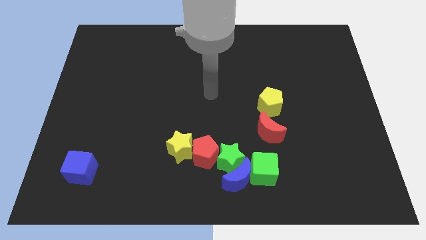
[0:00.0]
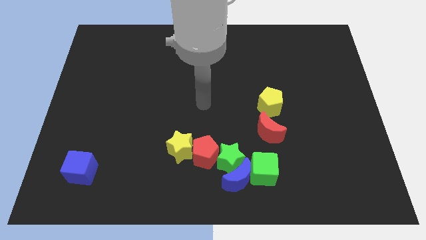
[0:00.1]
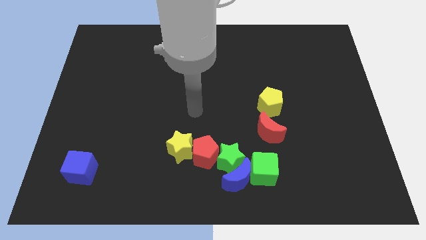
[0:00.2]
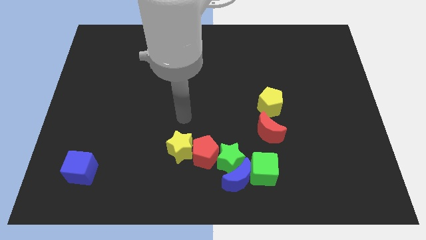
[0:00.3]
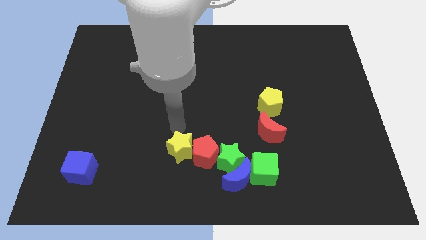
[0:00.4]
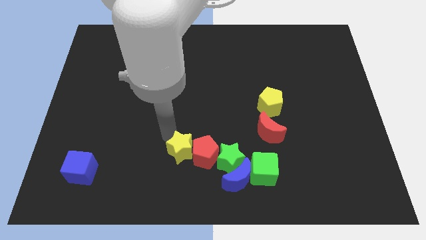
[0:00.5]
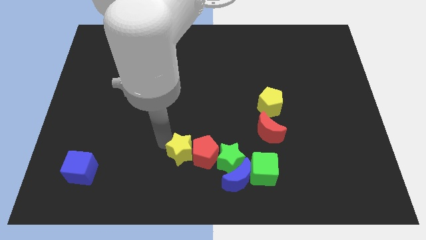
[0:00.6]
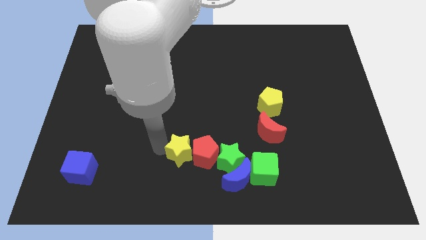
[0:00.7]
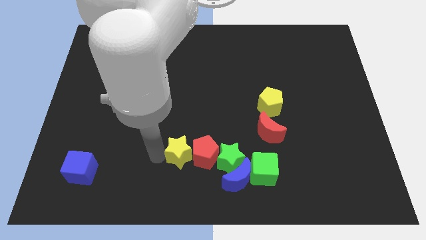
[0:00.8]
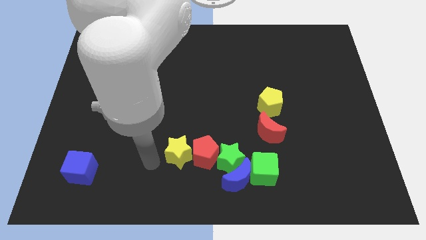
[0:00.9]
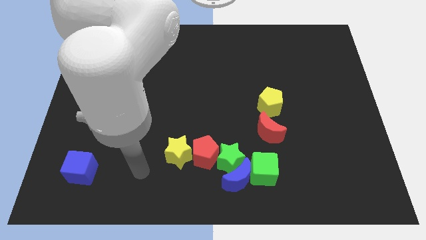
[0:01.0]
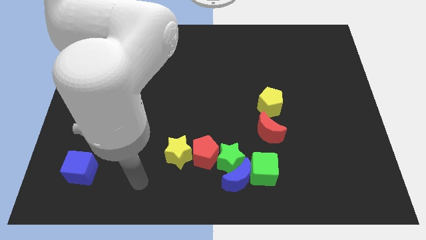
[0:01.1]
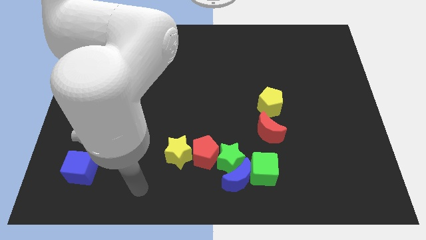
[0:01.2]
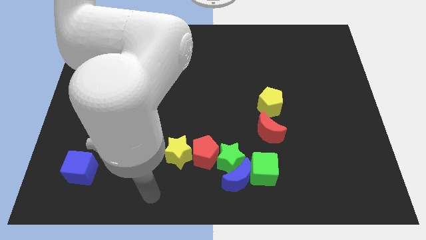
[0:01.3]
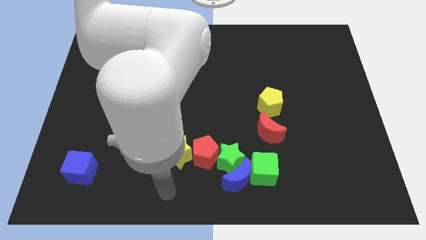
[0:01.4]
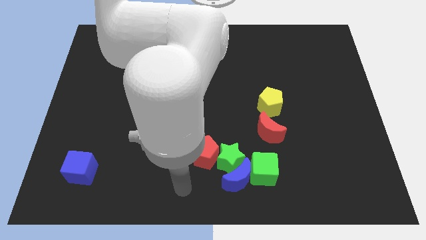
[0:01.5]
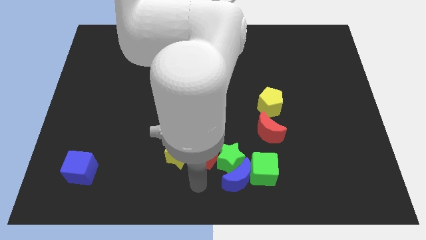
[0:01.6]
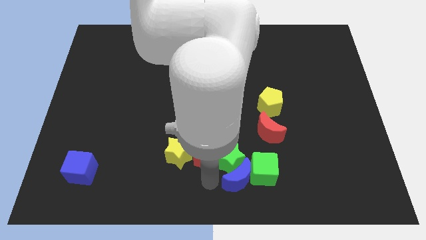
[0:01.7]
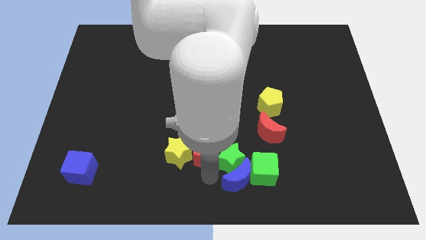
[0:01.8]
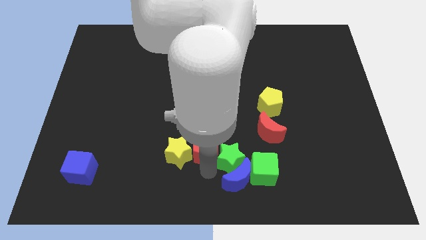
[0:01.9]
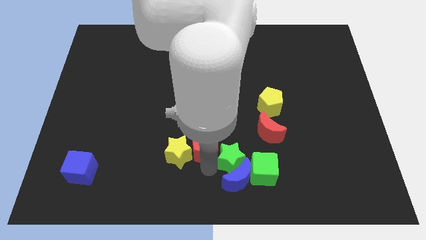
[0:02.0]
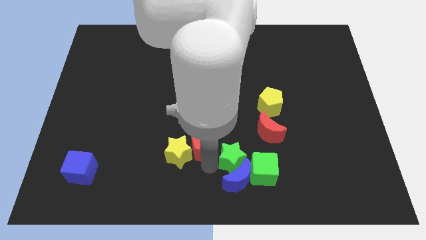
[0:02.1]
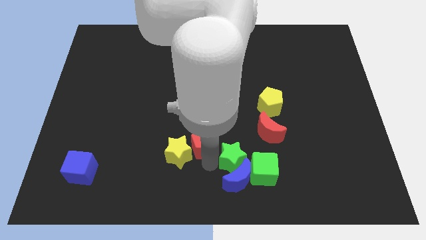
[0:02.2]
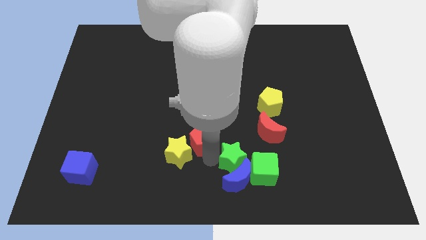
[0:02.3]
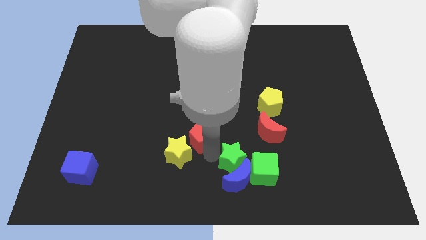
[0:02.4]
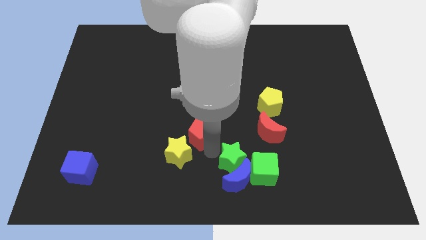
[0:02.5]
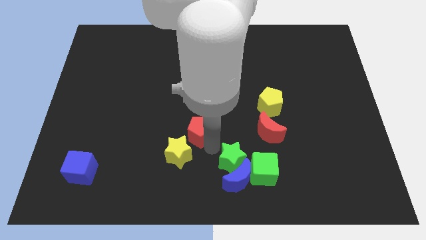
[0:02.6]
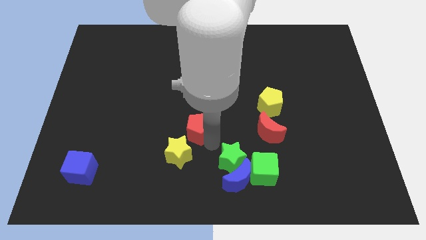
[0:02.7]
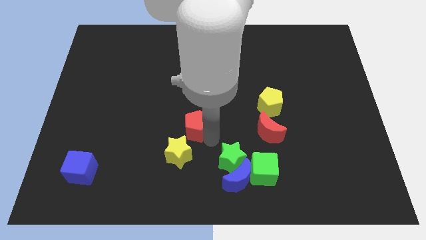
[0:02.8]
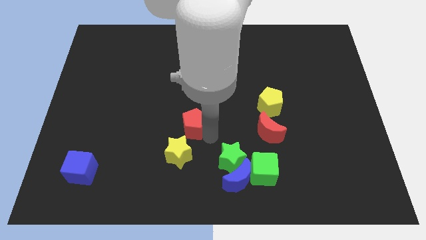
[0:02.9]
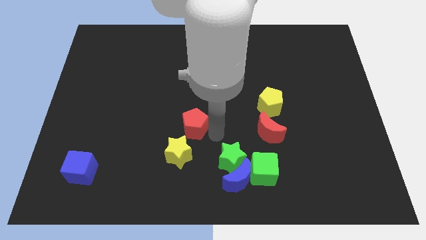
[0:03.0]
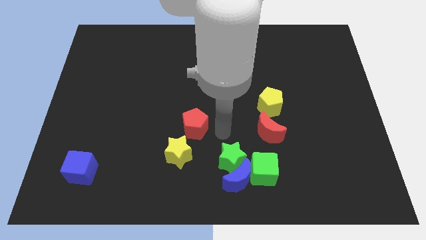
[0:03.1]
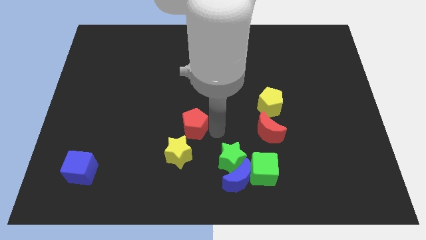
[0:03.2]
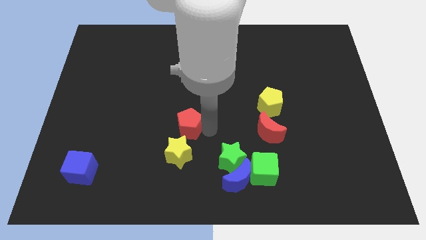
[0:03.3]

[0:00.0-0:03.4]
push the red pentagon upwards and left somewhat

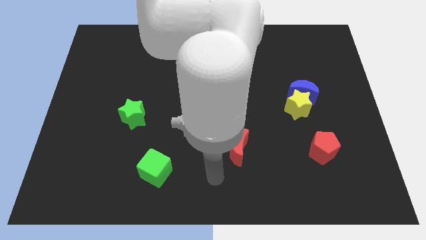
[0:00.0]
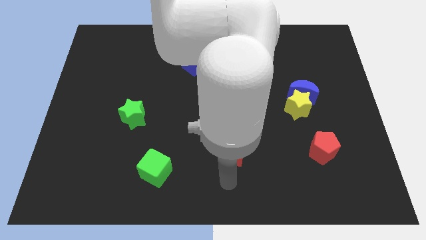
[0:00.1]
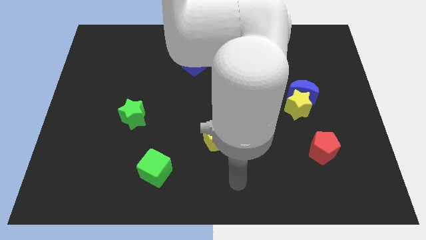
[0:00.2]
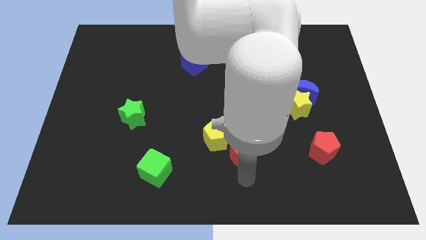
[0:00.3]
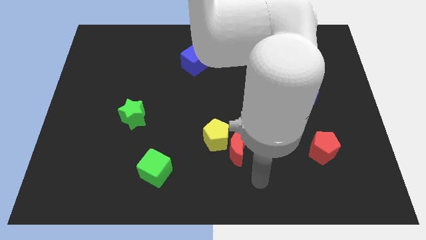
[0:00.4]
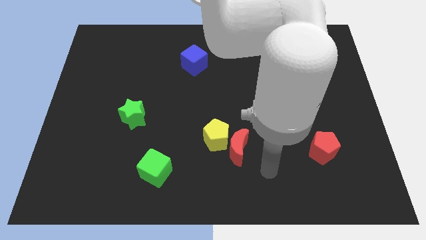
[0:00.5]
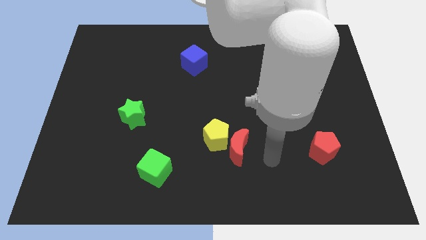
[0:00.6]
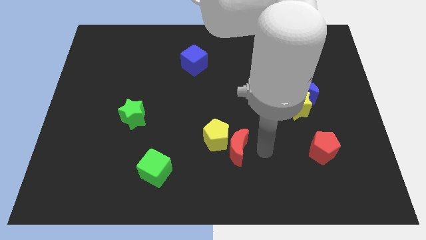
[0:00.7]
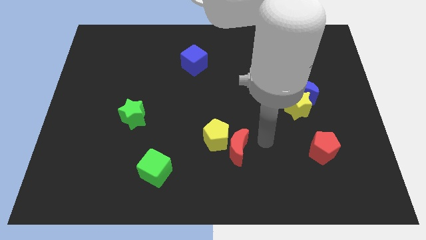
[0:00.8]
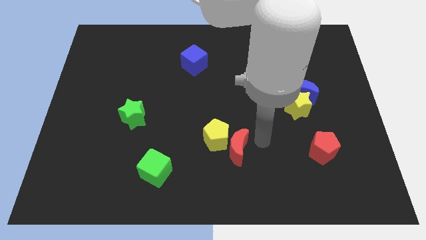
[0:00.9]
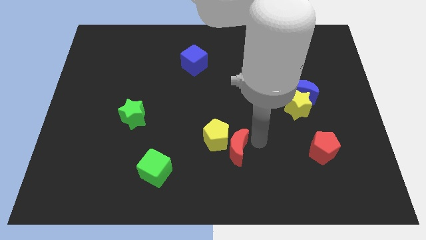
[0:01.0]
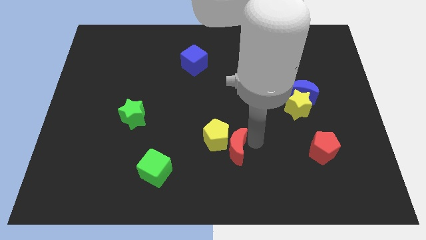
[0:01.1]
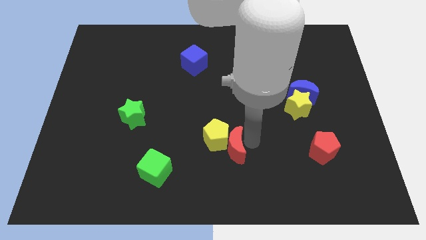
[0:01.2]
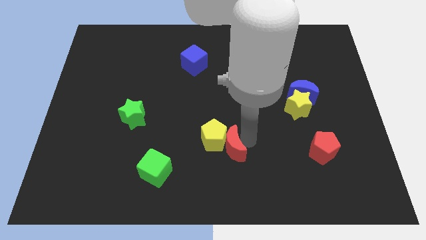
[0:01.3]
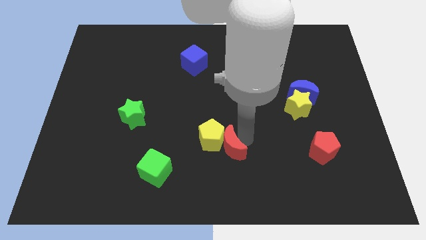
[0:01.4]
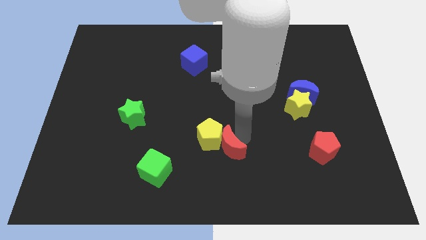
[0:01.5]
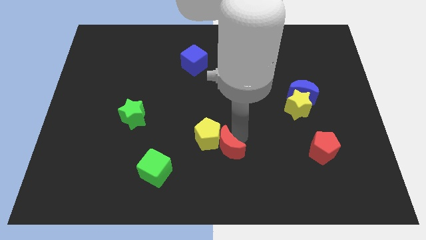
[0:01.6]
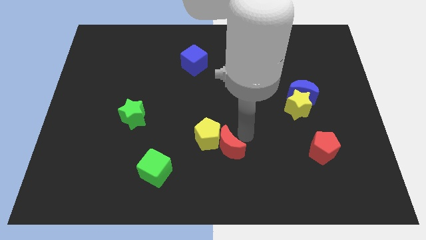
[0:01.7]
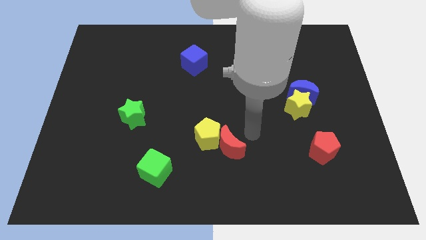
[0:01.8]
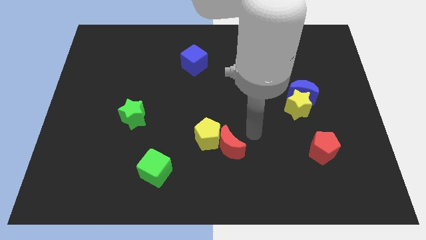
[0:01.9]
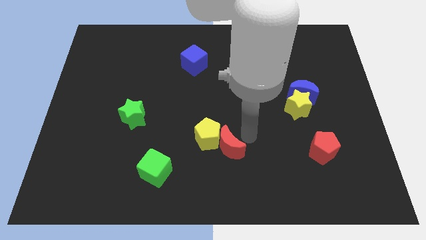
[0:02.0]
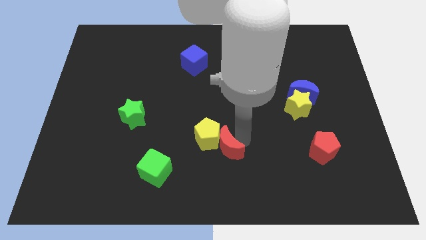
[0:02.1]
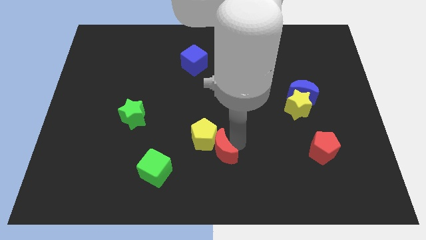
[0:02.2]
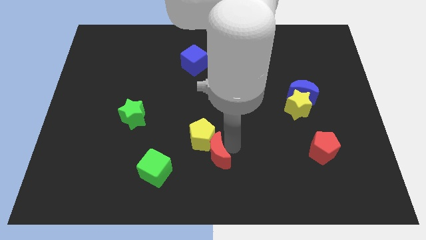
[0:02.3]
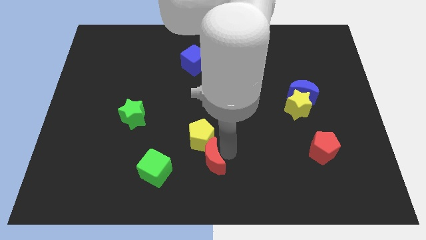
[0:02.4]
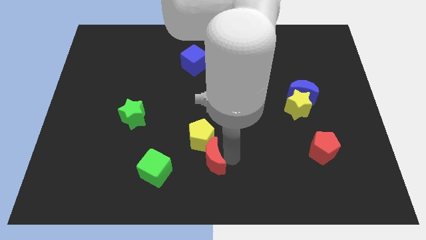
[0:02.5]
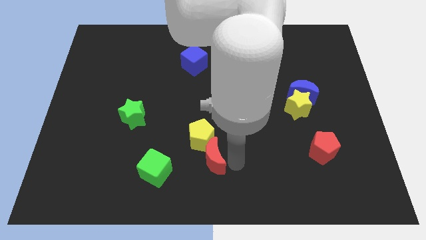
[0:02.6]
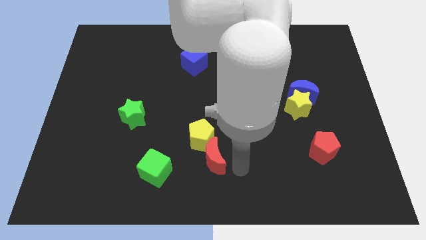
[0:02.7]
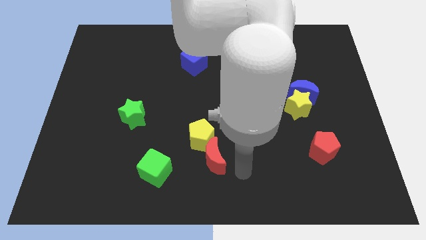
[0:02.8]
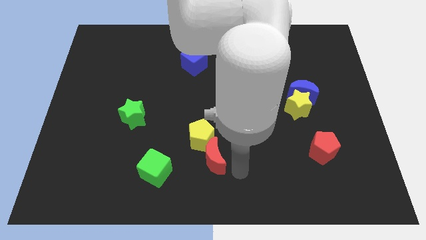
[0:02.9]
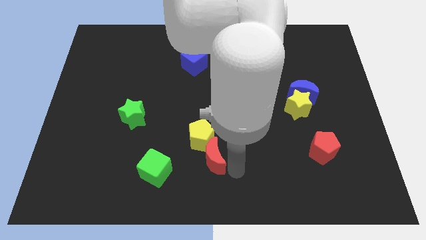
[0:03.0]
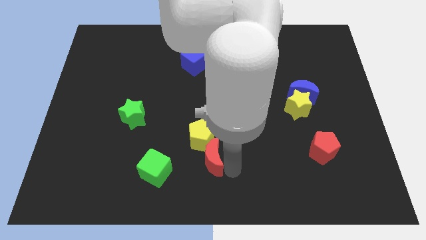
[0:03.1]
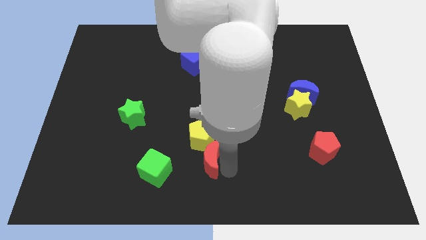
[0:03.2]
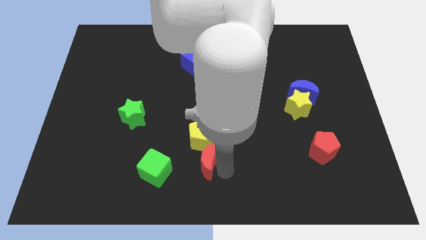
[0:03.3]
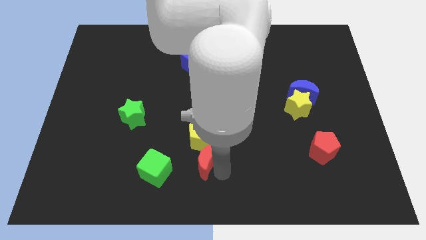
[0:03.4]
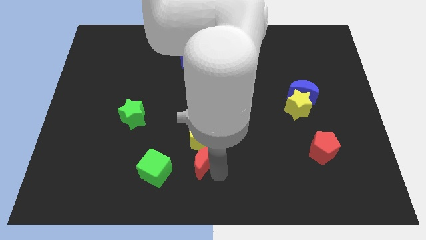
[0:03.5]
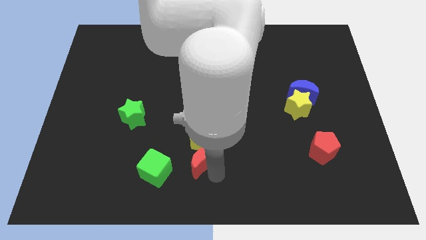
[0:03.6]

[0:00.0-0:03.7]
push the red moon a little left

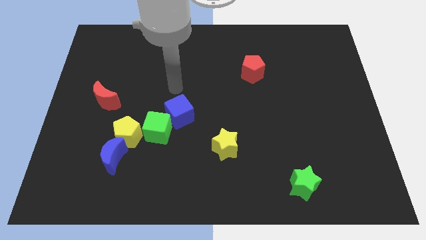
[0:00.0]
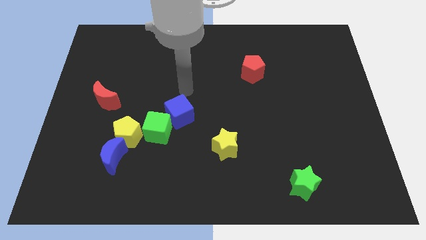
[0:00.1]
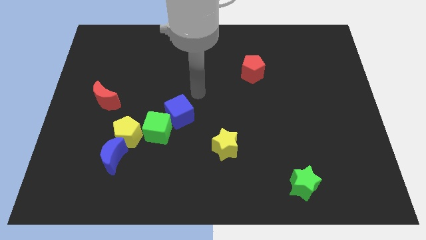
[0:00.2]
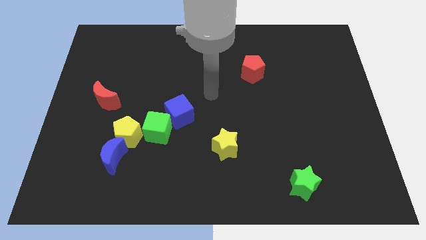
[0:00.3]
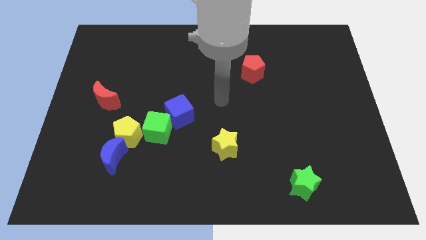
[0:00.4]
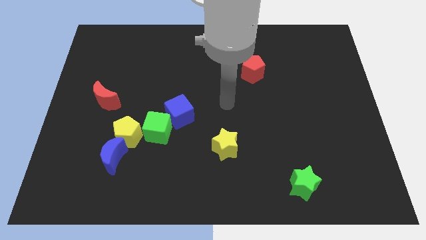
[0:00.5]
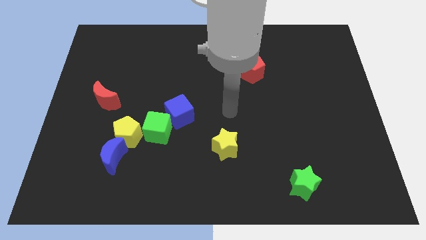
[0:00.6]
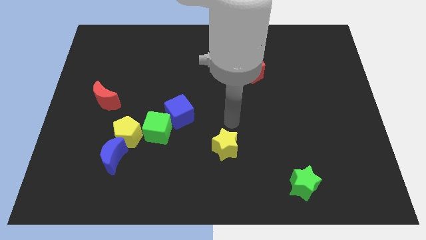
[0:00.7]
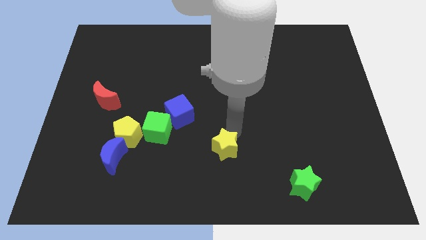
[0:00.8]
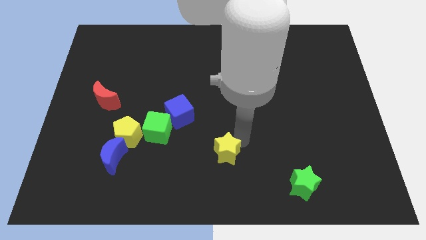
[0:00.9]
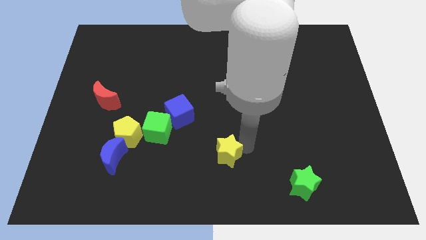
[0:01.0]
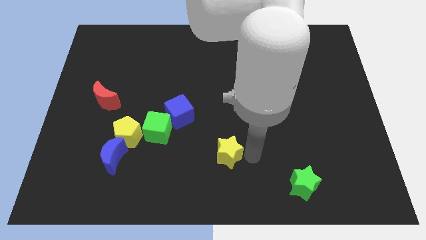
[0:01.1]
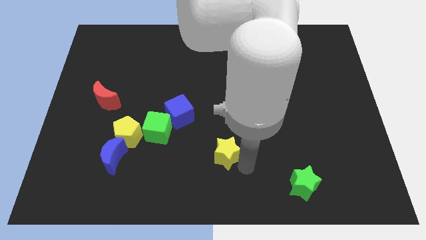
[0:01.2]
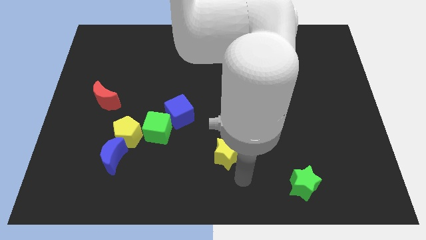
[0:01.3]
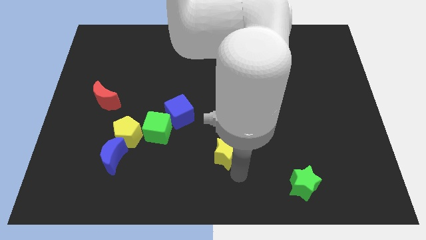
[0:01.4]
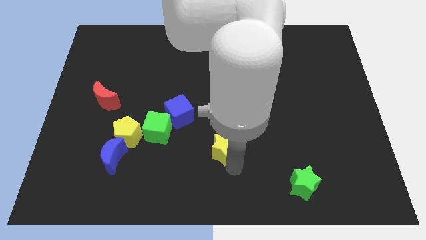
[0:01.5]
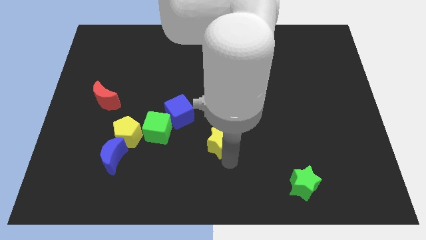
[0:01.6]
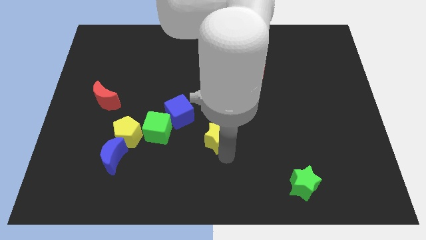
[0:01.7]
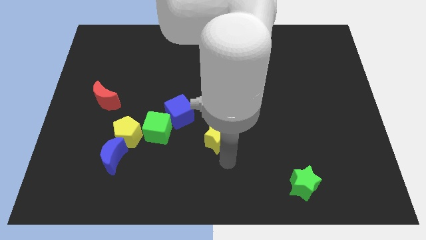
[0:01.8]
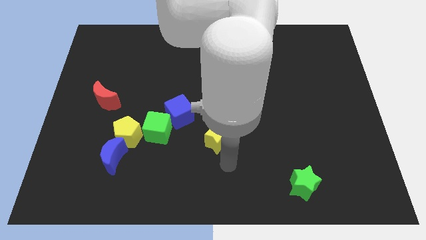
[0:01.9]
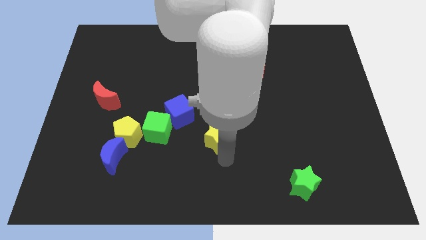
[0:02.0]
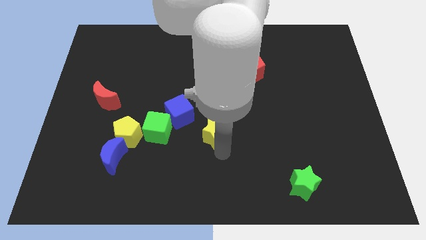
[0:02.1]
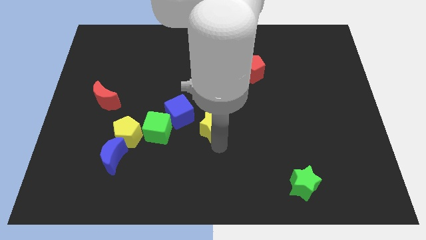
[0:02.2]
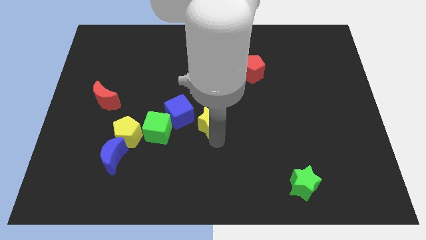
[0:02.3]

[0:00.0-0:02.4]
slightly push the yellow star up and then to the left
